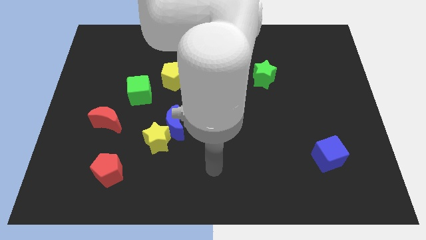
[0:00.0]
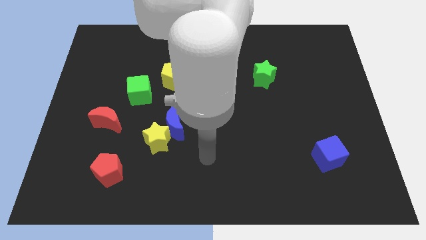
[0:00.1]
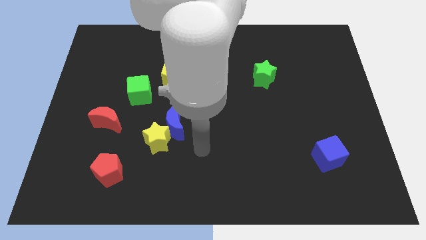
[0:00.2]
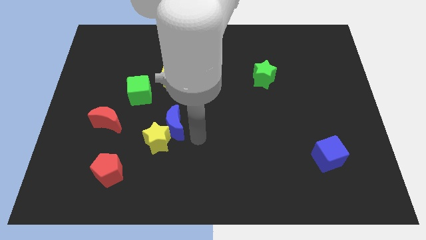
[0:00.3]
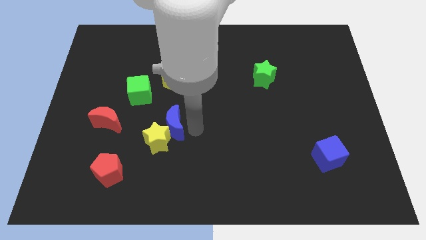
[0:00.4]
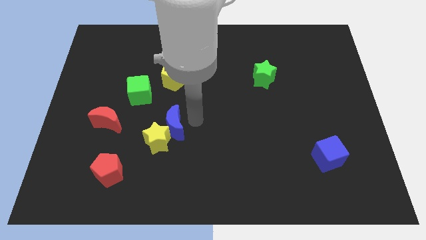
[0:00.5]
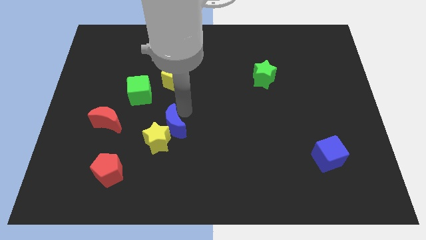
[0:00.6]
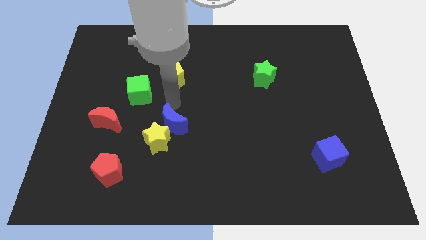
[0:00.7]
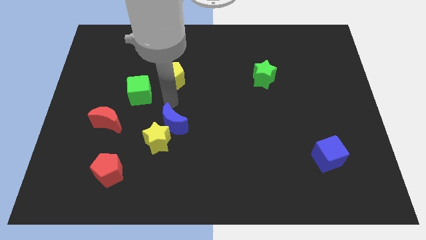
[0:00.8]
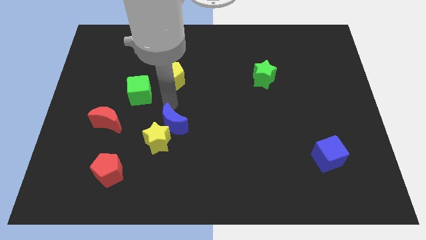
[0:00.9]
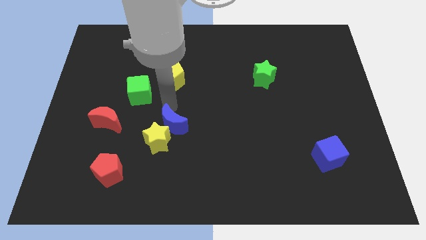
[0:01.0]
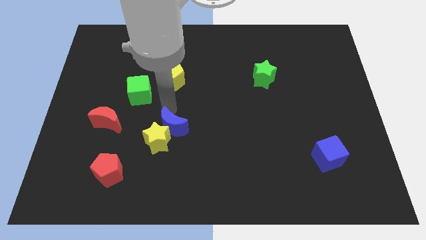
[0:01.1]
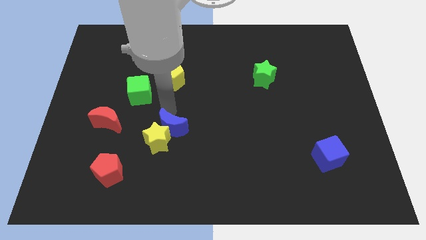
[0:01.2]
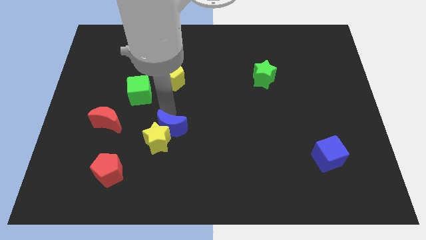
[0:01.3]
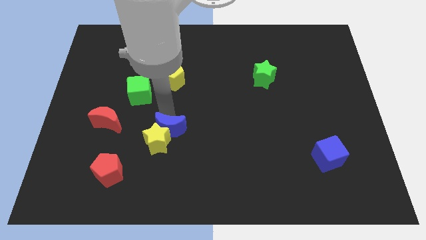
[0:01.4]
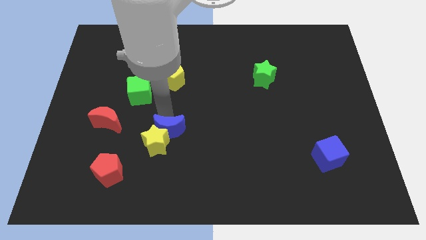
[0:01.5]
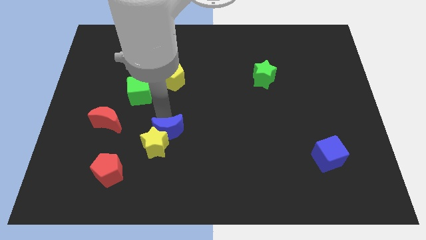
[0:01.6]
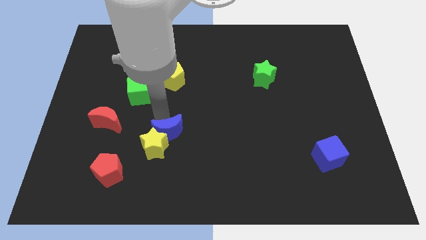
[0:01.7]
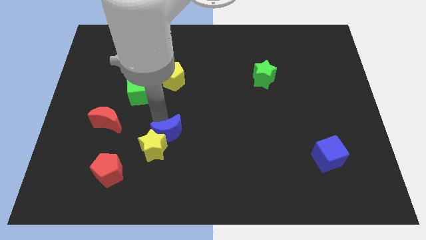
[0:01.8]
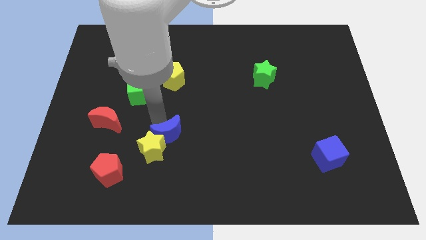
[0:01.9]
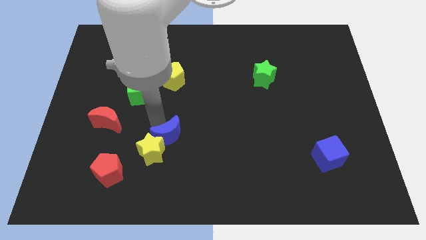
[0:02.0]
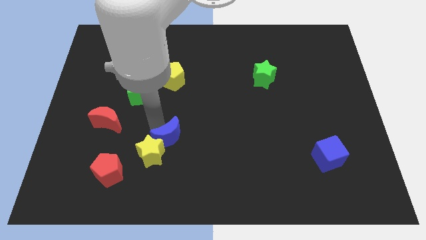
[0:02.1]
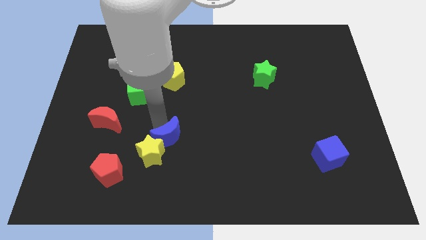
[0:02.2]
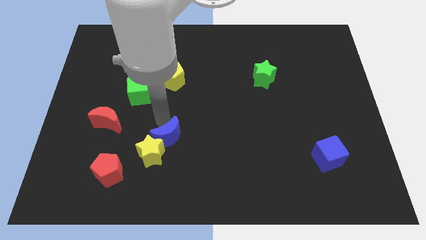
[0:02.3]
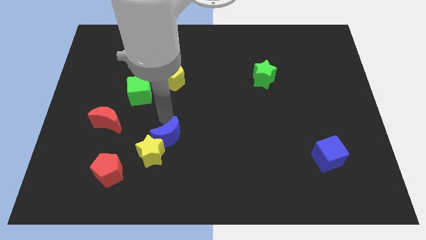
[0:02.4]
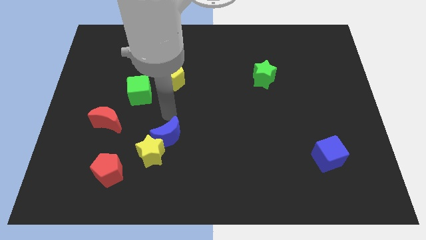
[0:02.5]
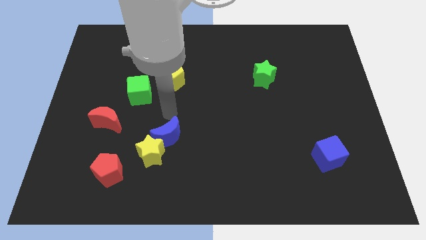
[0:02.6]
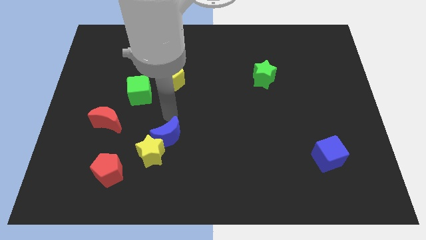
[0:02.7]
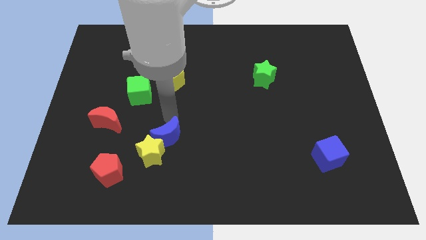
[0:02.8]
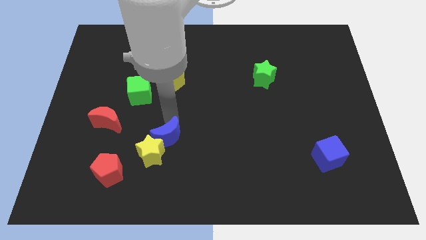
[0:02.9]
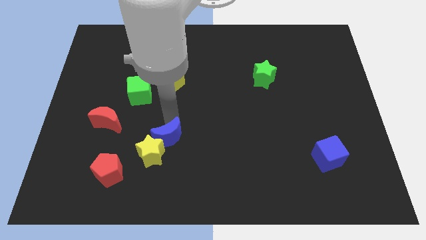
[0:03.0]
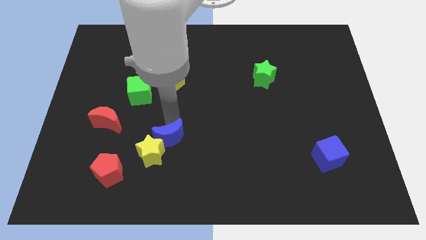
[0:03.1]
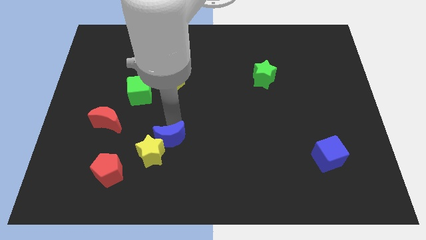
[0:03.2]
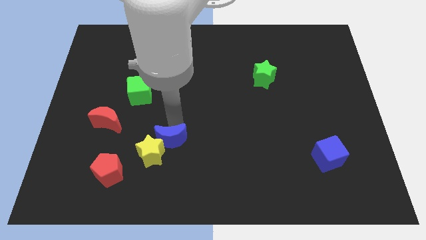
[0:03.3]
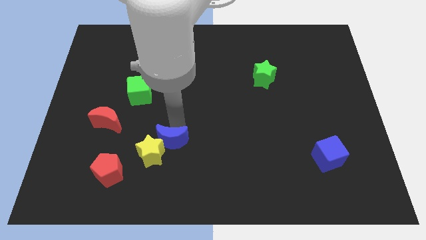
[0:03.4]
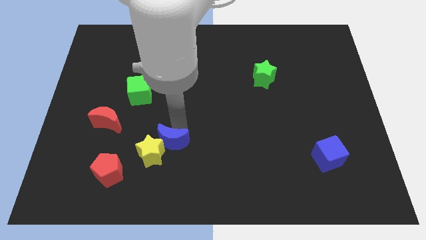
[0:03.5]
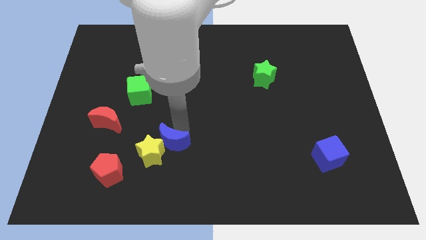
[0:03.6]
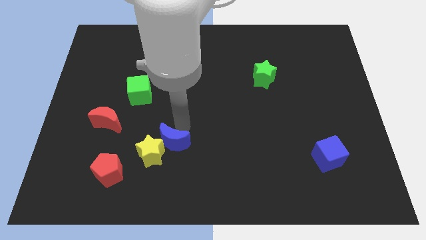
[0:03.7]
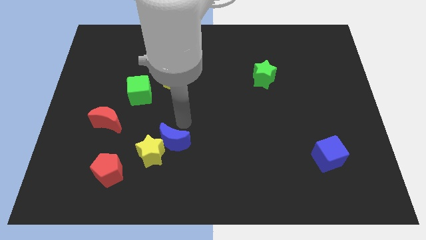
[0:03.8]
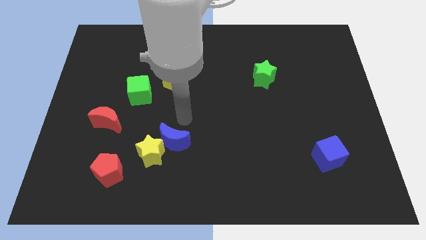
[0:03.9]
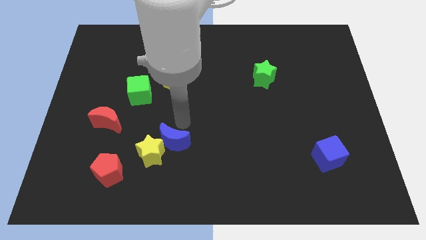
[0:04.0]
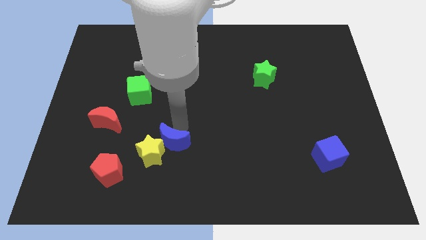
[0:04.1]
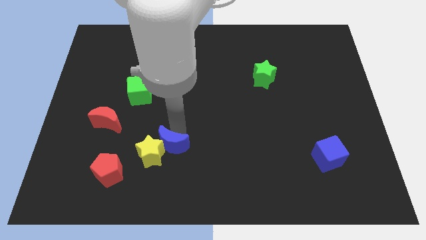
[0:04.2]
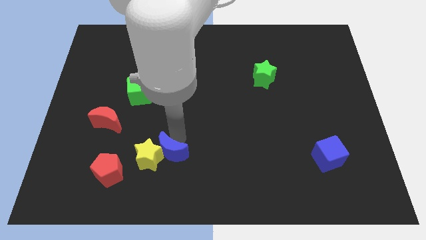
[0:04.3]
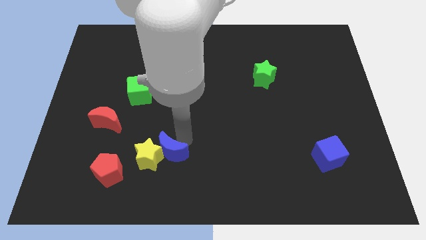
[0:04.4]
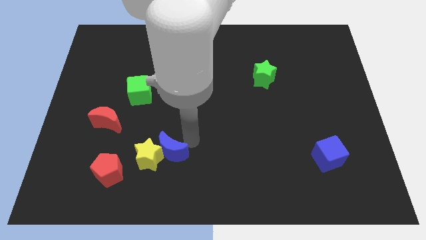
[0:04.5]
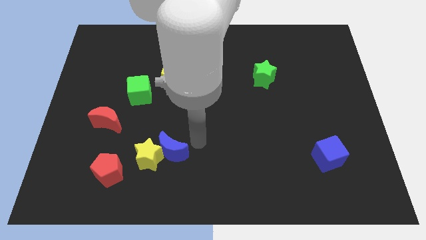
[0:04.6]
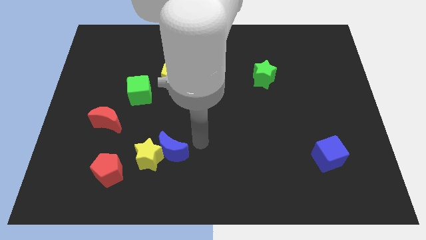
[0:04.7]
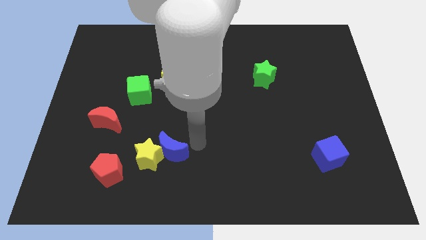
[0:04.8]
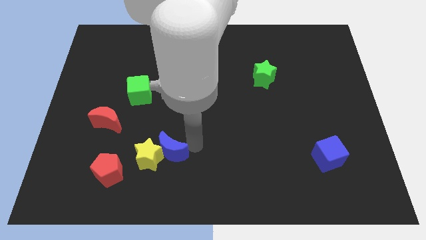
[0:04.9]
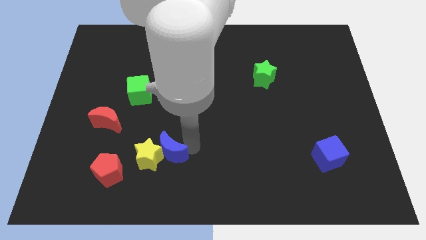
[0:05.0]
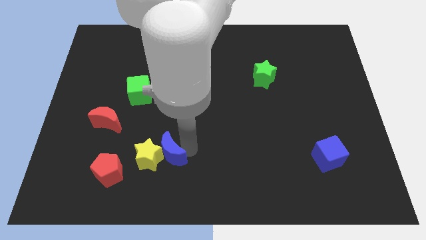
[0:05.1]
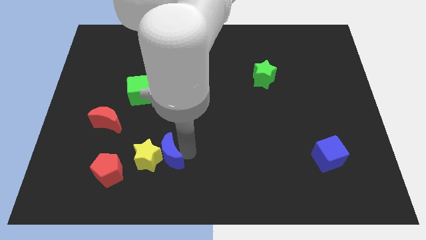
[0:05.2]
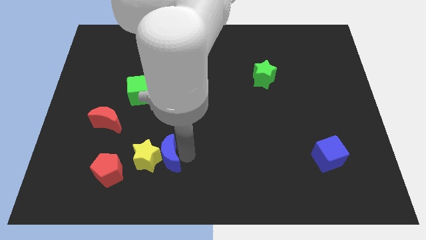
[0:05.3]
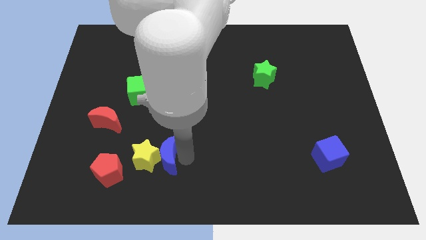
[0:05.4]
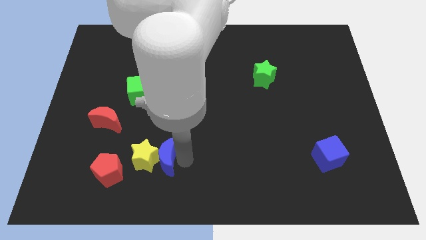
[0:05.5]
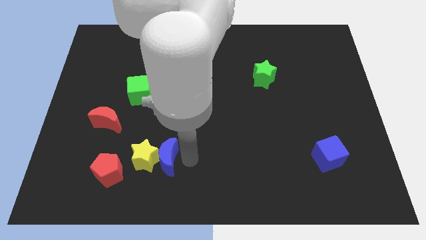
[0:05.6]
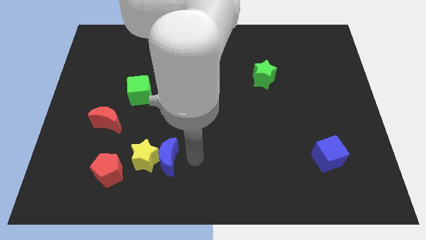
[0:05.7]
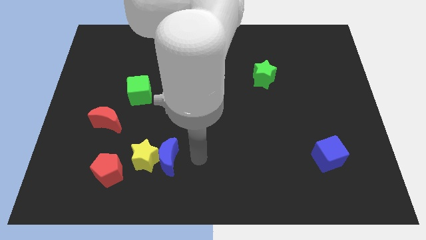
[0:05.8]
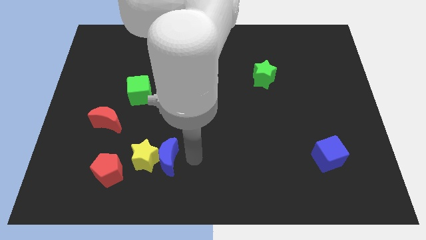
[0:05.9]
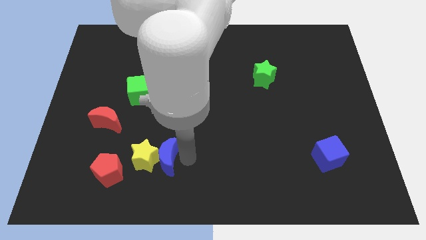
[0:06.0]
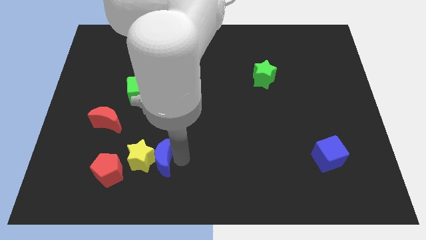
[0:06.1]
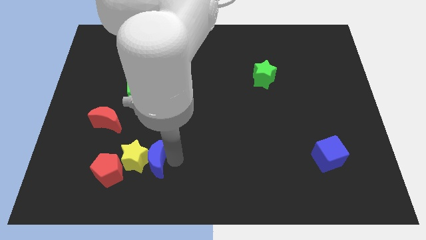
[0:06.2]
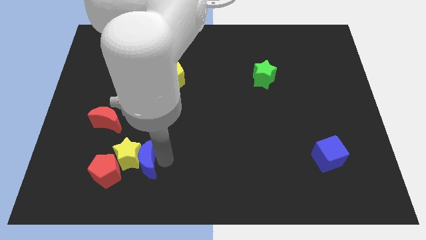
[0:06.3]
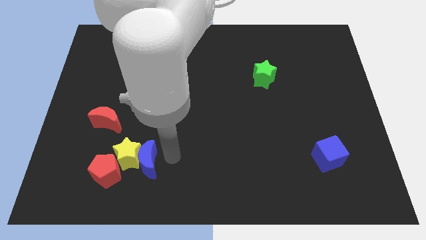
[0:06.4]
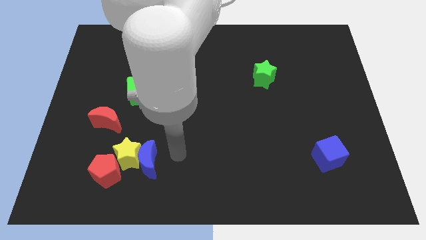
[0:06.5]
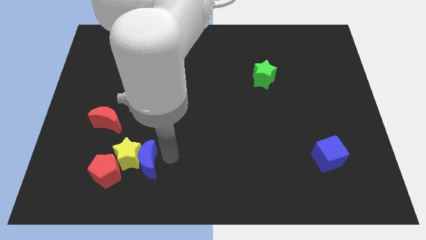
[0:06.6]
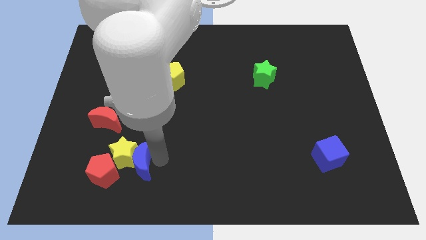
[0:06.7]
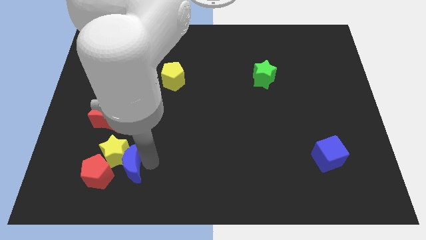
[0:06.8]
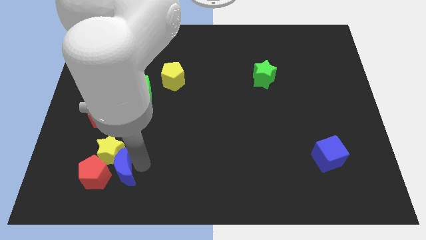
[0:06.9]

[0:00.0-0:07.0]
slide the blue moon towards the red pentagon
